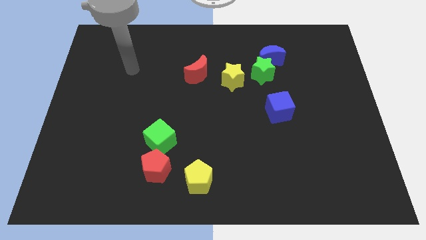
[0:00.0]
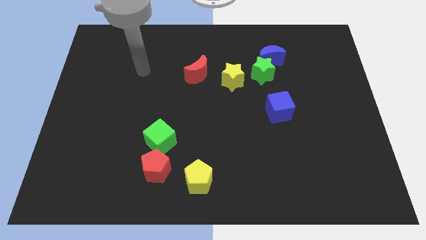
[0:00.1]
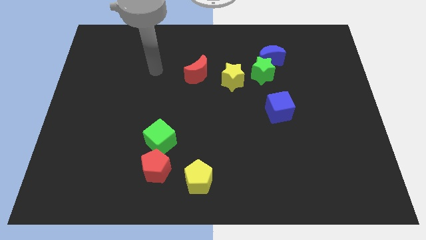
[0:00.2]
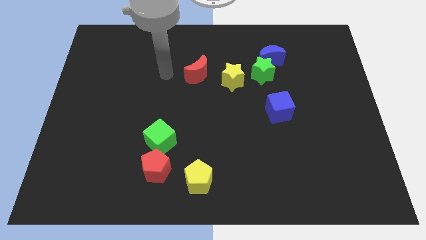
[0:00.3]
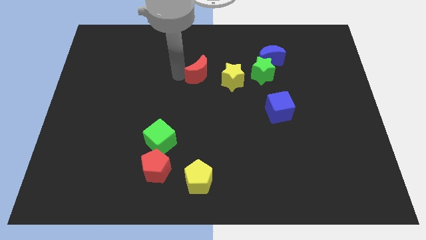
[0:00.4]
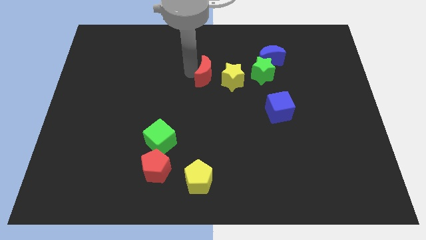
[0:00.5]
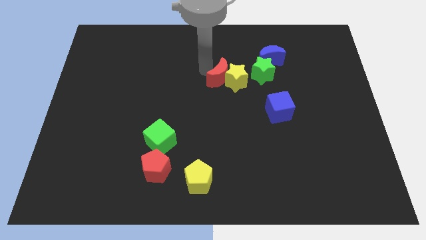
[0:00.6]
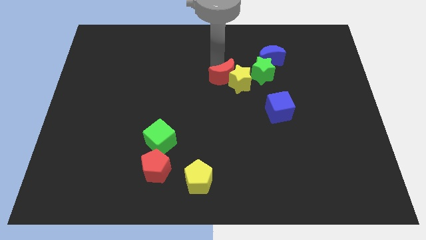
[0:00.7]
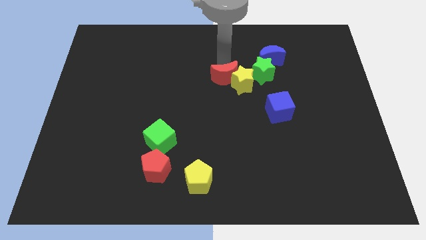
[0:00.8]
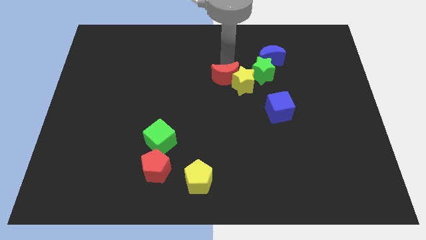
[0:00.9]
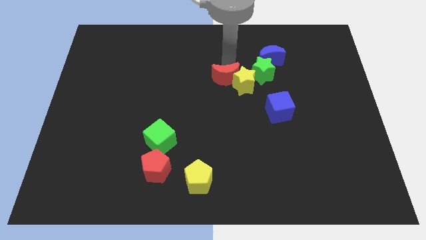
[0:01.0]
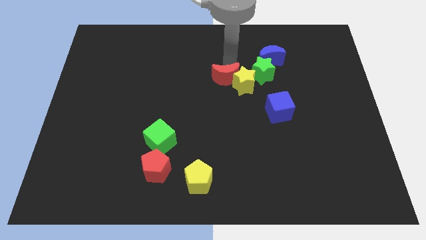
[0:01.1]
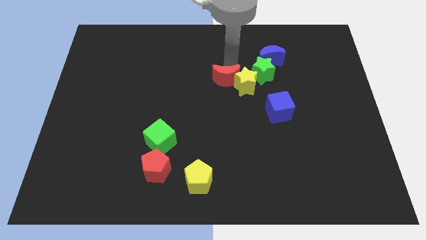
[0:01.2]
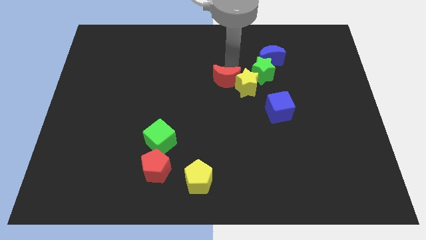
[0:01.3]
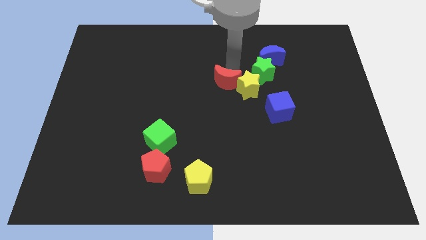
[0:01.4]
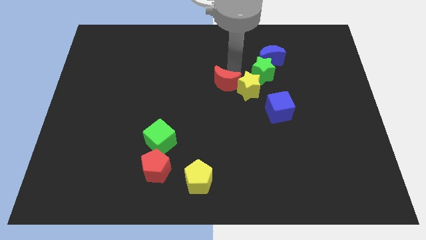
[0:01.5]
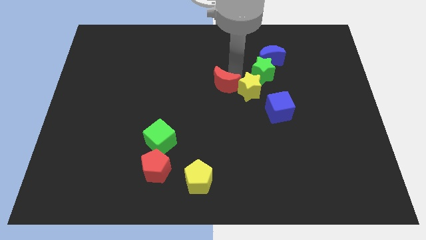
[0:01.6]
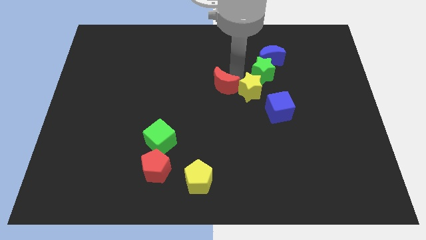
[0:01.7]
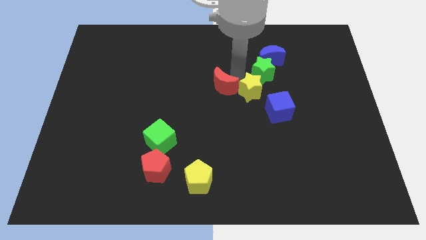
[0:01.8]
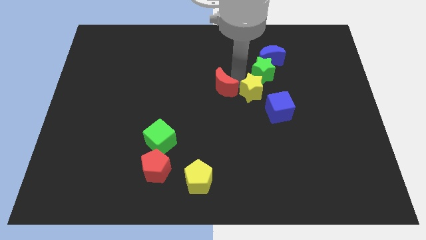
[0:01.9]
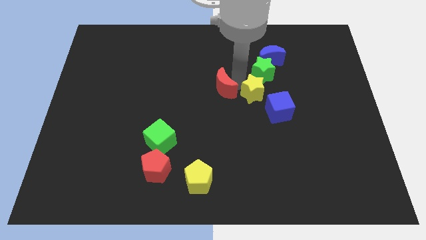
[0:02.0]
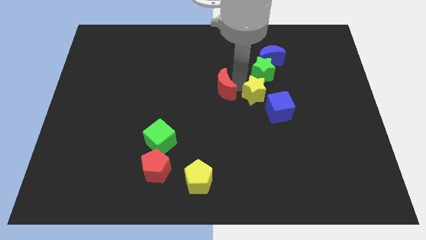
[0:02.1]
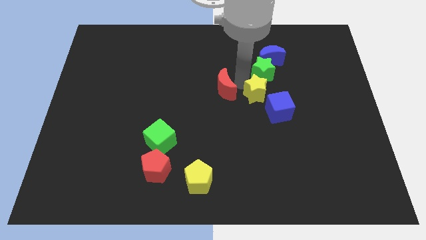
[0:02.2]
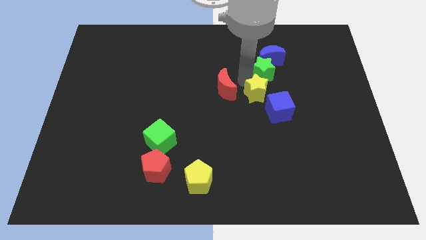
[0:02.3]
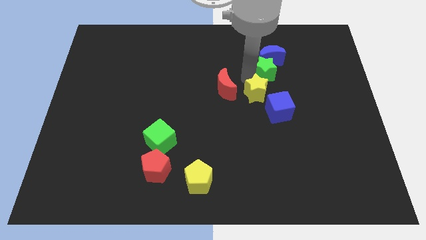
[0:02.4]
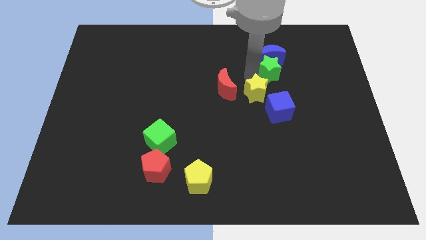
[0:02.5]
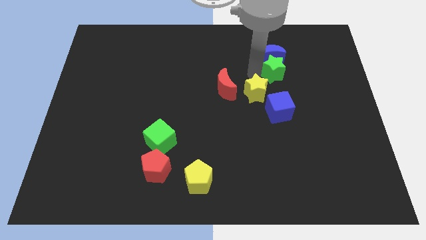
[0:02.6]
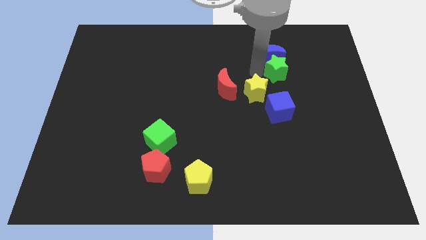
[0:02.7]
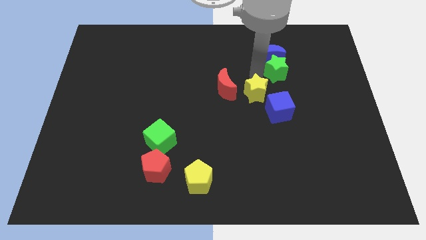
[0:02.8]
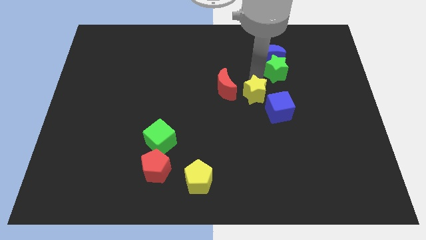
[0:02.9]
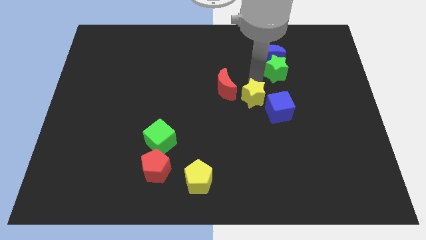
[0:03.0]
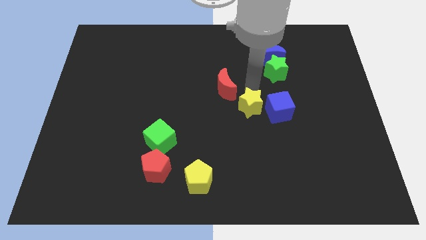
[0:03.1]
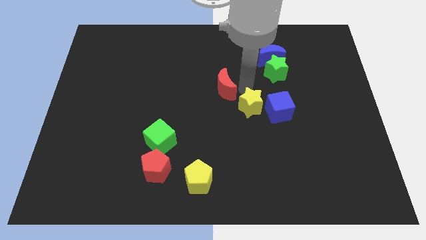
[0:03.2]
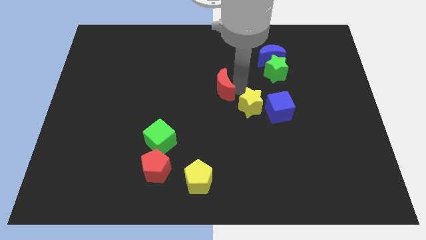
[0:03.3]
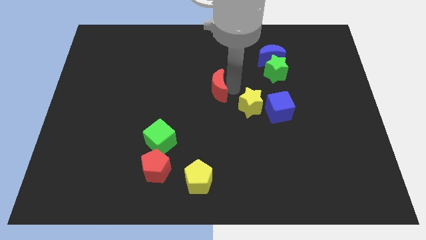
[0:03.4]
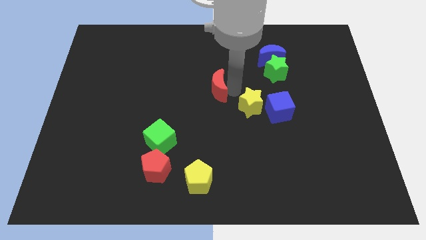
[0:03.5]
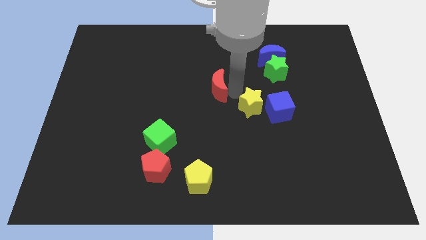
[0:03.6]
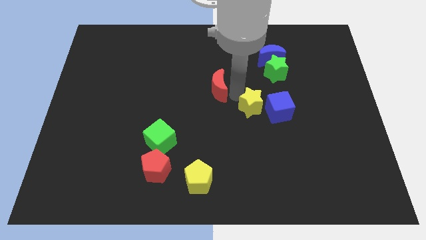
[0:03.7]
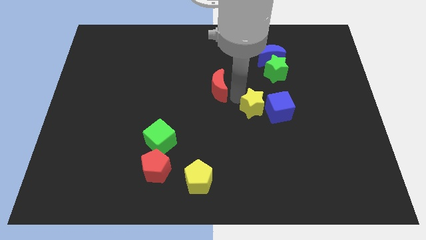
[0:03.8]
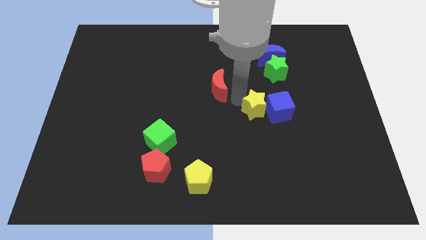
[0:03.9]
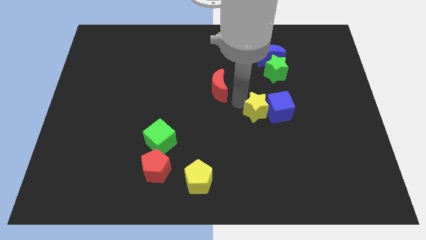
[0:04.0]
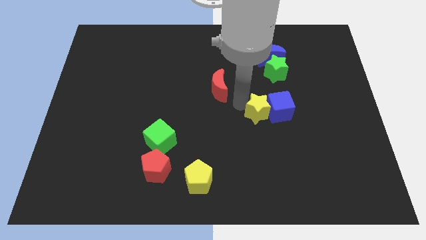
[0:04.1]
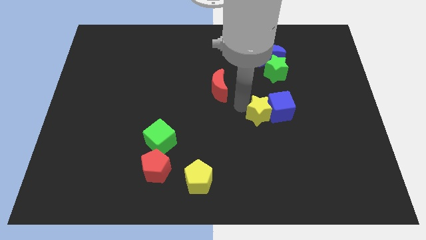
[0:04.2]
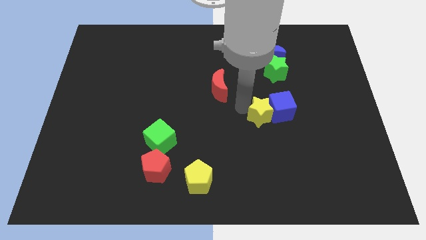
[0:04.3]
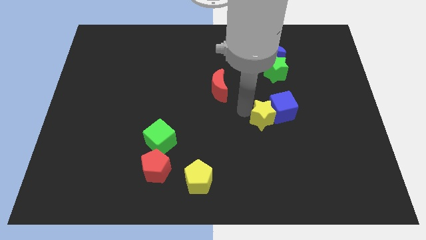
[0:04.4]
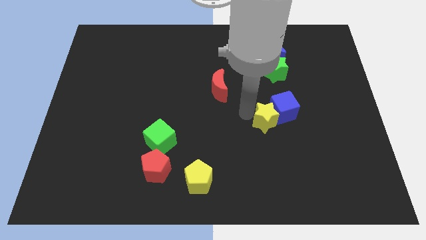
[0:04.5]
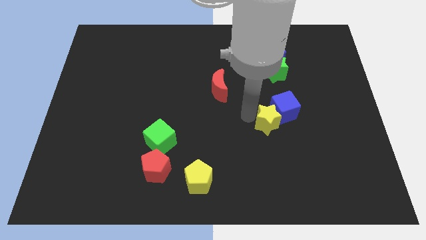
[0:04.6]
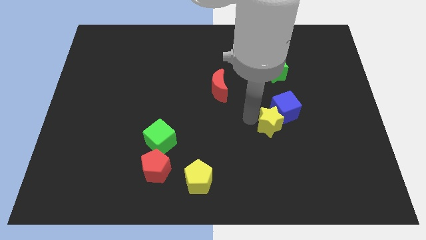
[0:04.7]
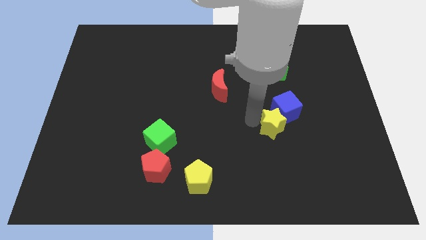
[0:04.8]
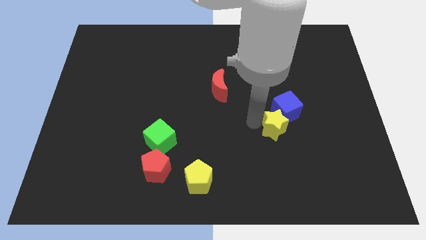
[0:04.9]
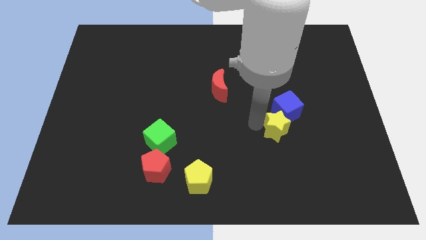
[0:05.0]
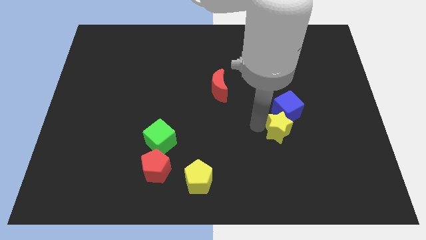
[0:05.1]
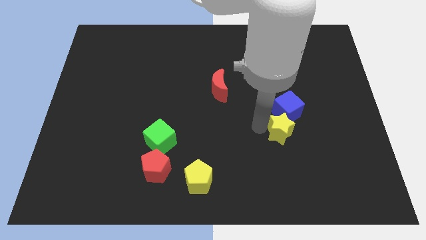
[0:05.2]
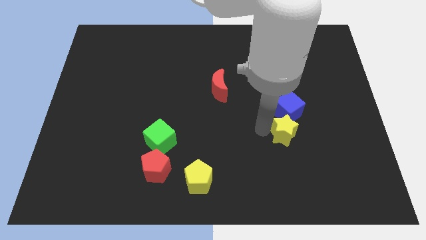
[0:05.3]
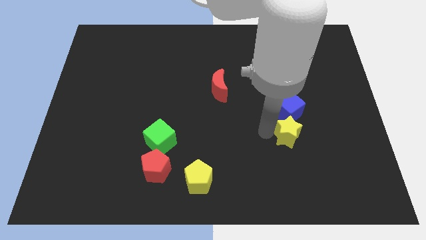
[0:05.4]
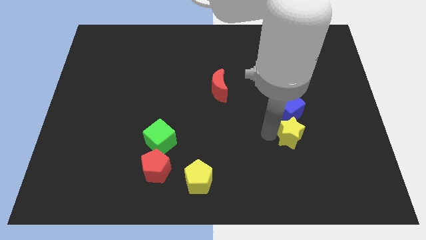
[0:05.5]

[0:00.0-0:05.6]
push the yellow star down and to the right

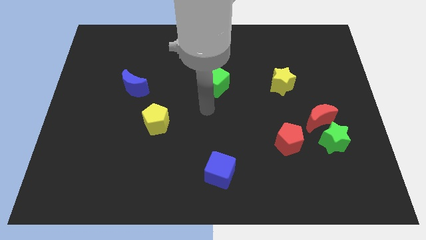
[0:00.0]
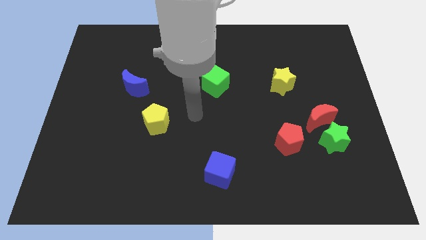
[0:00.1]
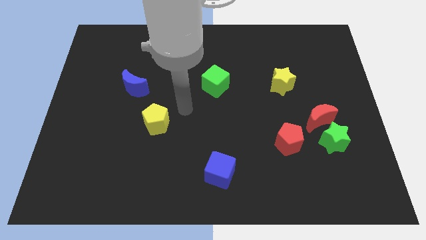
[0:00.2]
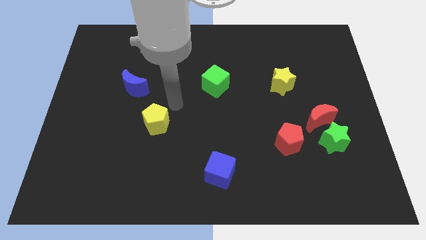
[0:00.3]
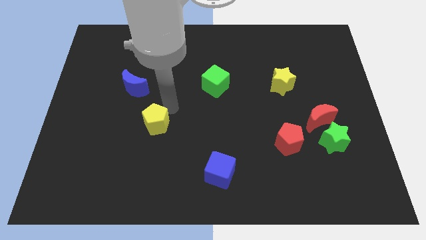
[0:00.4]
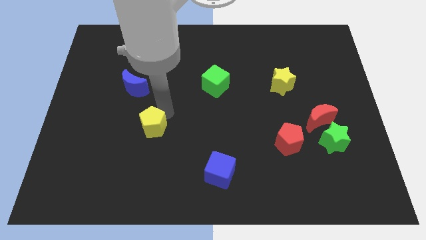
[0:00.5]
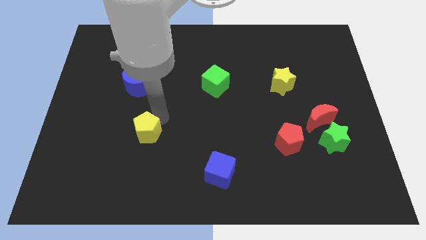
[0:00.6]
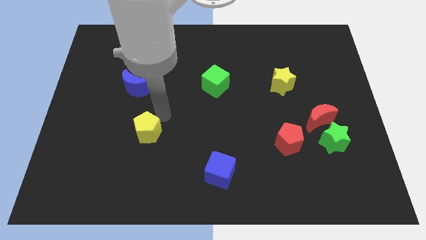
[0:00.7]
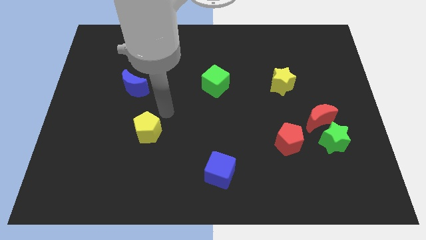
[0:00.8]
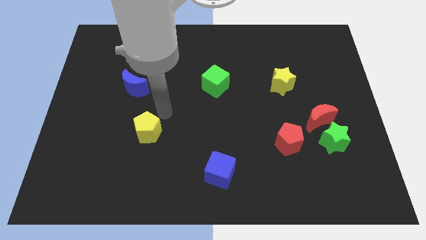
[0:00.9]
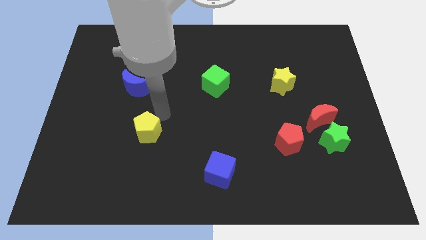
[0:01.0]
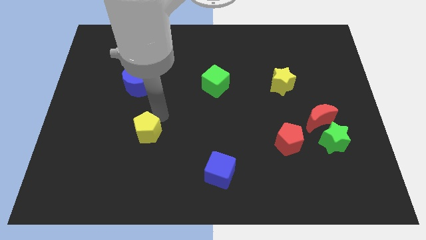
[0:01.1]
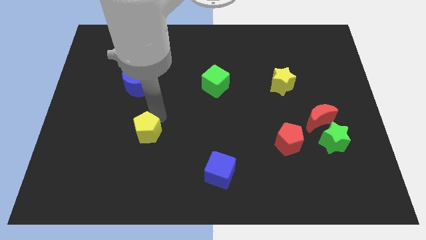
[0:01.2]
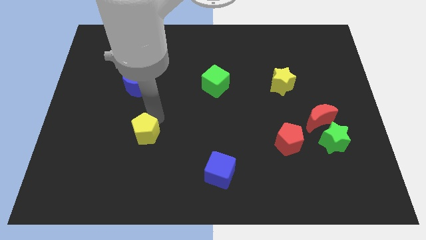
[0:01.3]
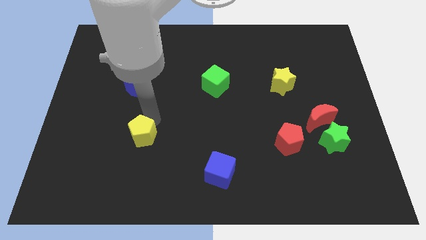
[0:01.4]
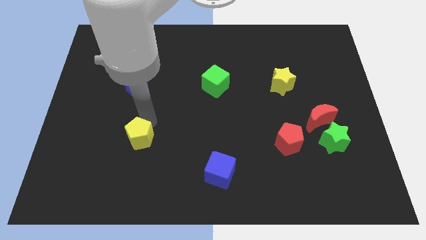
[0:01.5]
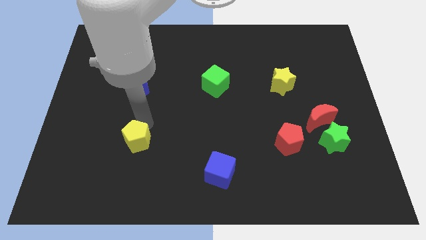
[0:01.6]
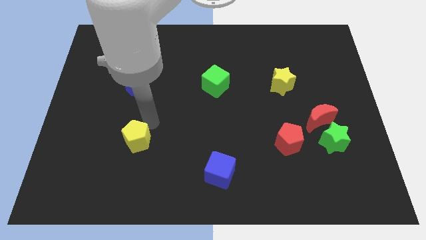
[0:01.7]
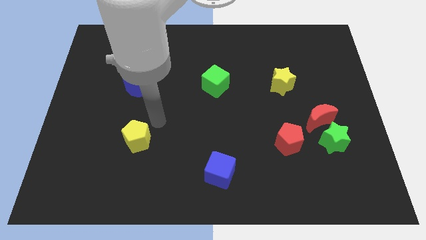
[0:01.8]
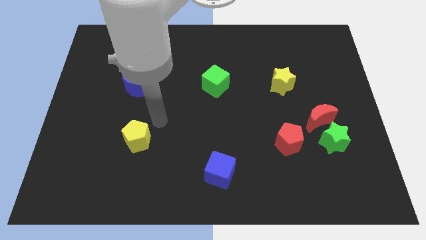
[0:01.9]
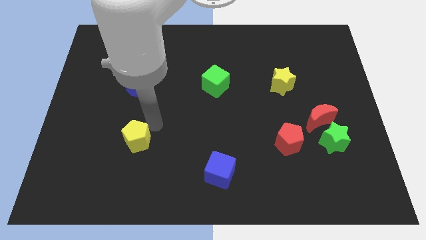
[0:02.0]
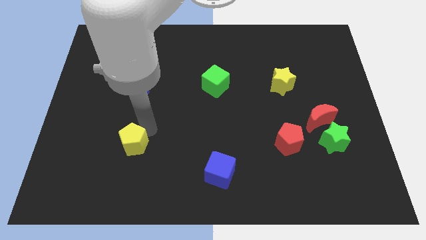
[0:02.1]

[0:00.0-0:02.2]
move the yellow pentagon a bit downwards and then to the left

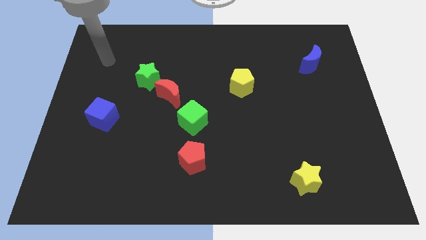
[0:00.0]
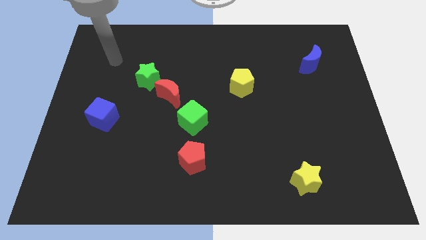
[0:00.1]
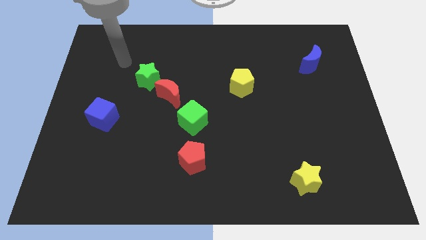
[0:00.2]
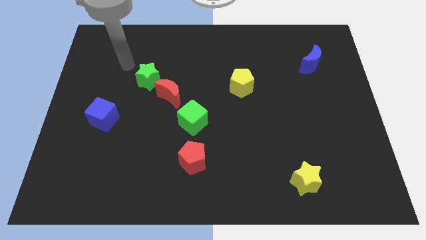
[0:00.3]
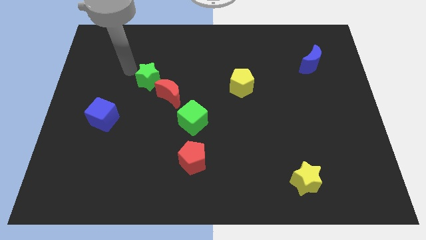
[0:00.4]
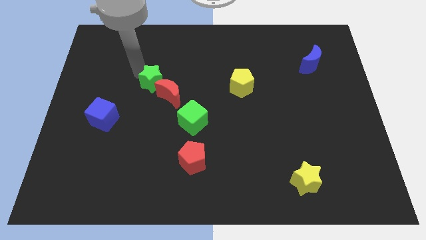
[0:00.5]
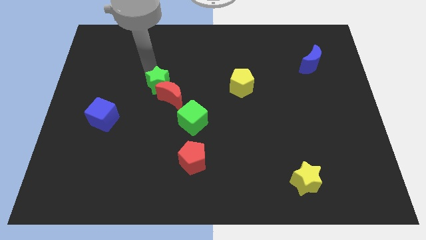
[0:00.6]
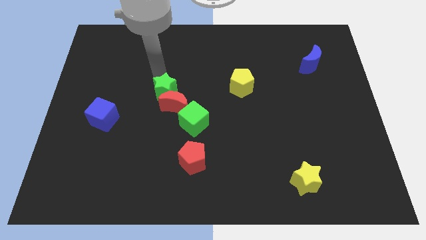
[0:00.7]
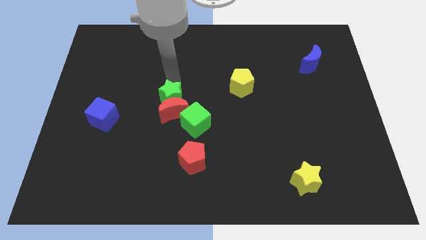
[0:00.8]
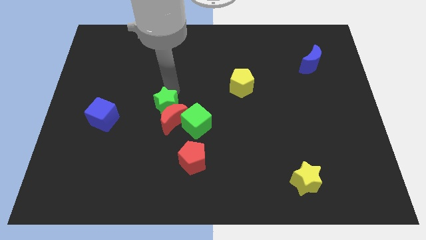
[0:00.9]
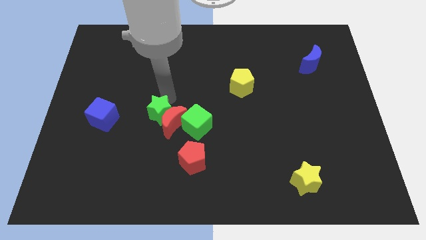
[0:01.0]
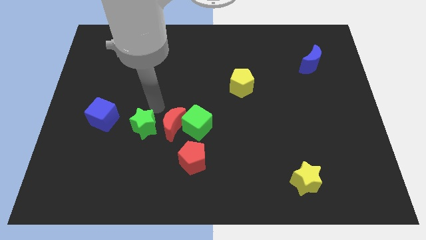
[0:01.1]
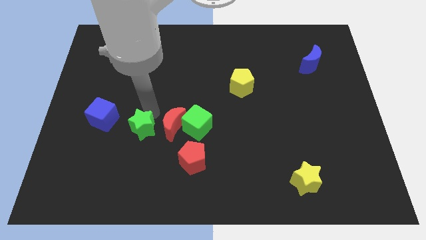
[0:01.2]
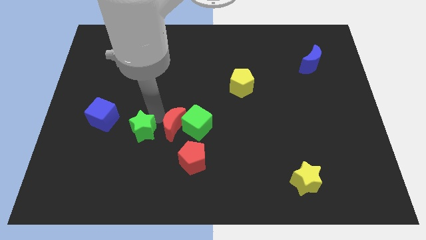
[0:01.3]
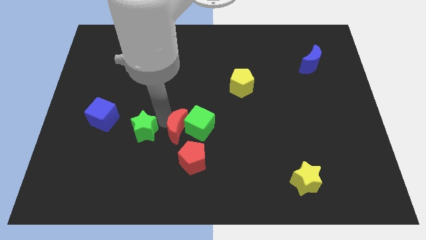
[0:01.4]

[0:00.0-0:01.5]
push the red moon downwards and to the right a little bit
